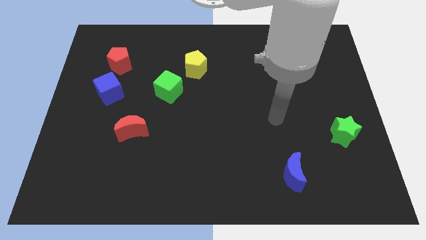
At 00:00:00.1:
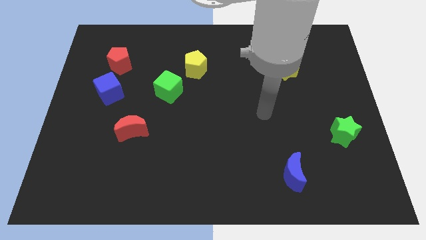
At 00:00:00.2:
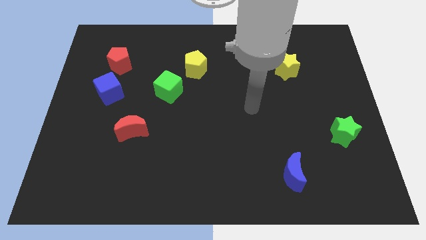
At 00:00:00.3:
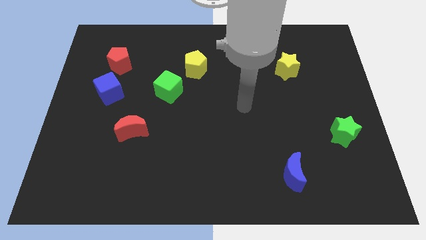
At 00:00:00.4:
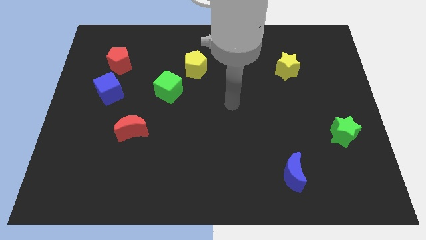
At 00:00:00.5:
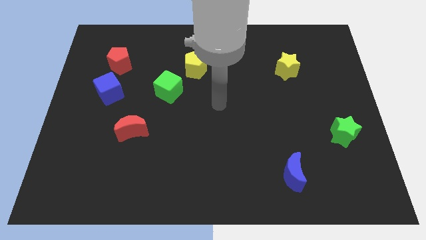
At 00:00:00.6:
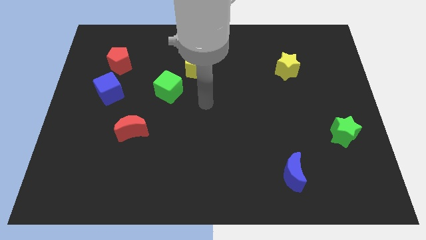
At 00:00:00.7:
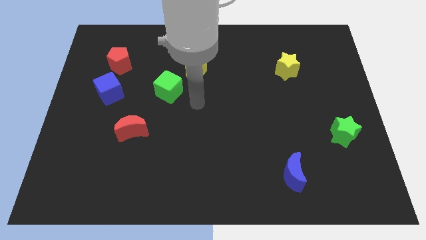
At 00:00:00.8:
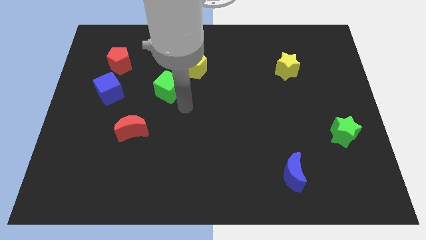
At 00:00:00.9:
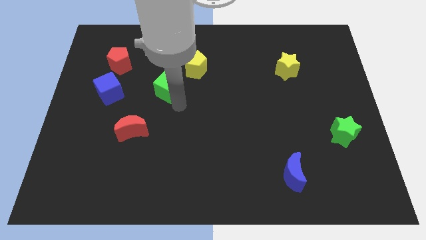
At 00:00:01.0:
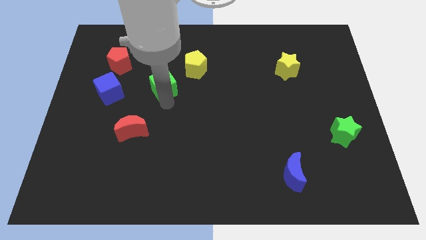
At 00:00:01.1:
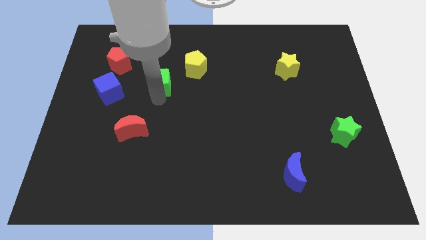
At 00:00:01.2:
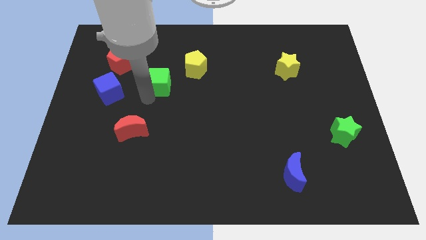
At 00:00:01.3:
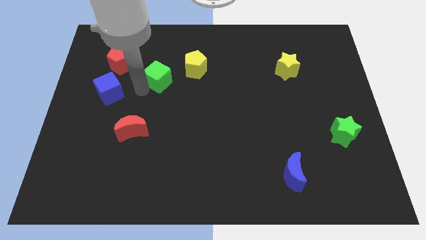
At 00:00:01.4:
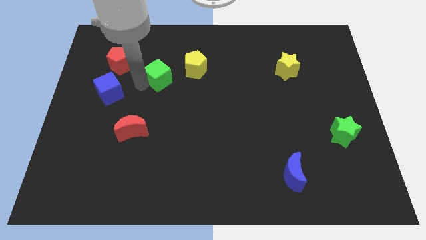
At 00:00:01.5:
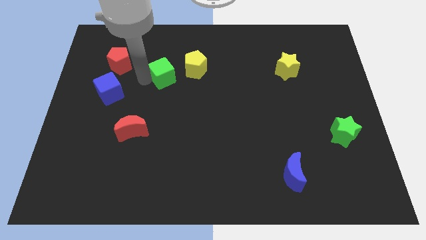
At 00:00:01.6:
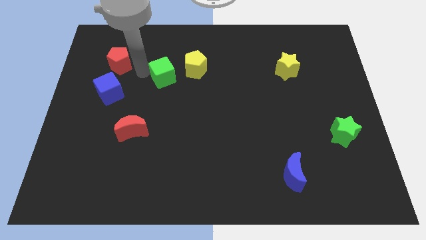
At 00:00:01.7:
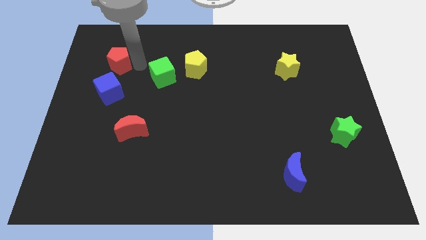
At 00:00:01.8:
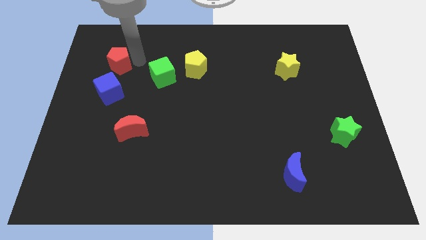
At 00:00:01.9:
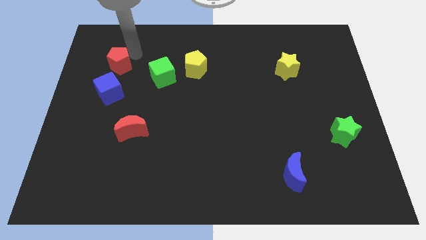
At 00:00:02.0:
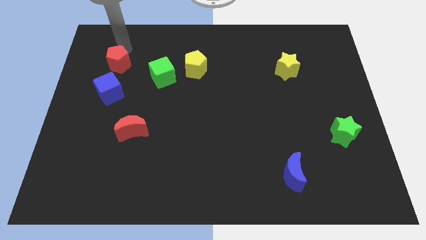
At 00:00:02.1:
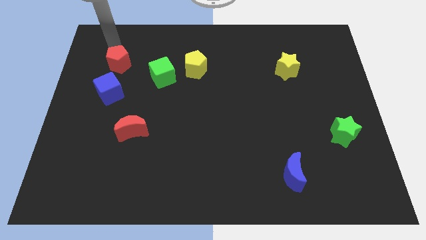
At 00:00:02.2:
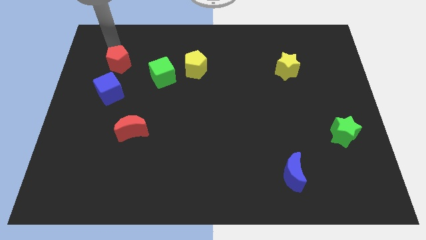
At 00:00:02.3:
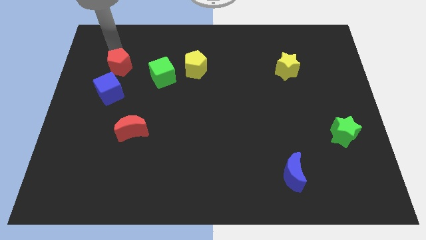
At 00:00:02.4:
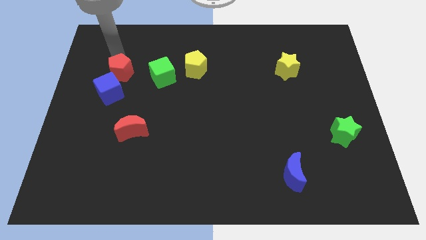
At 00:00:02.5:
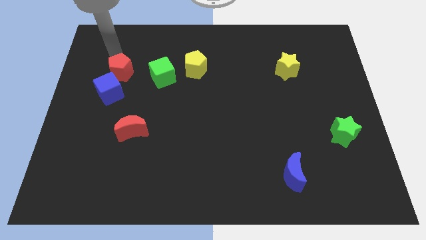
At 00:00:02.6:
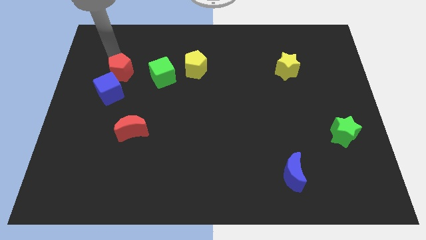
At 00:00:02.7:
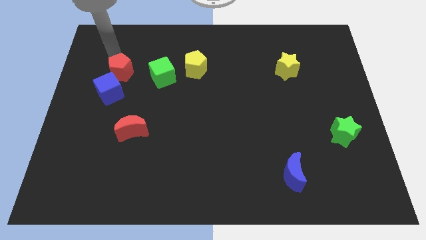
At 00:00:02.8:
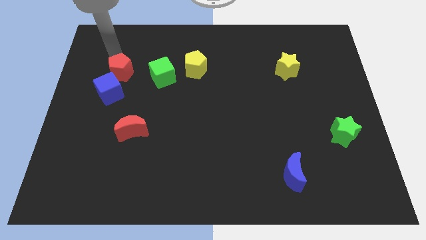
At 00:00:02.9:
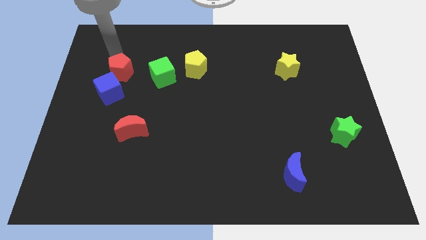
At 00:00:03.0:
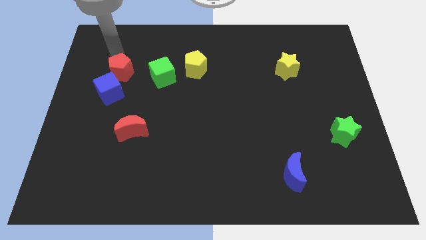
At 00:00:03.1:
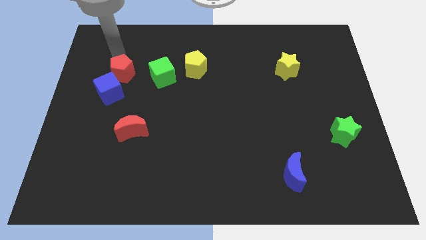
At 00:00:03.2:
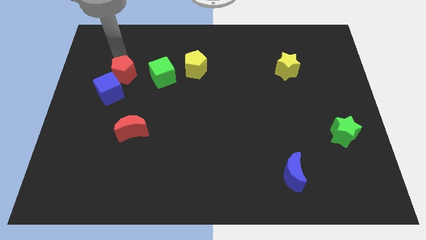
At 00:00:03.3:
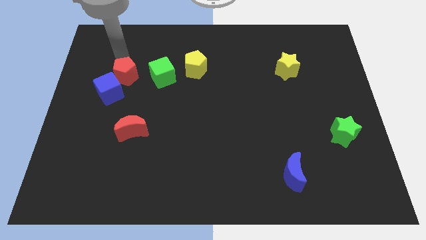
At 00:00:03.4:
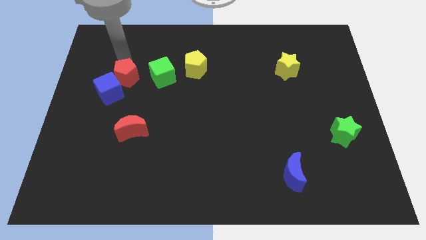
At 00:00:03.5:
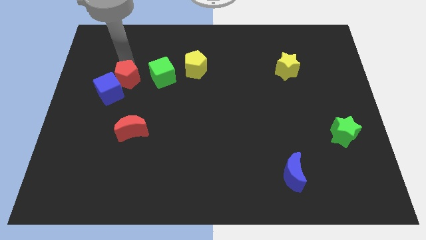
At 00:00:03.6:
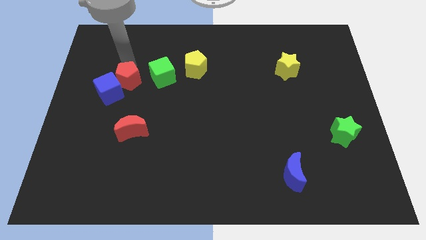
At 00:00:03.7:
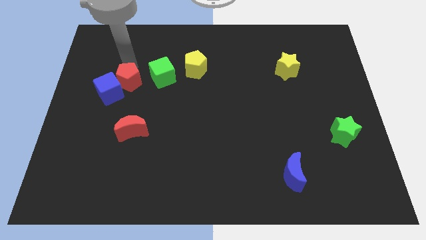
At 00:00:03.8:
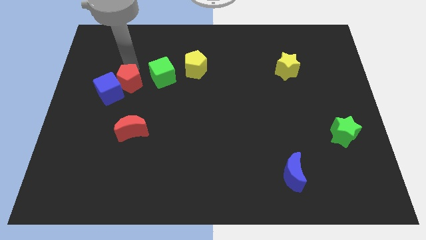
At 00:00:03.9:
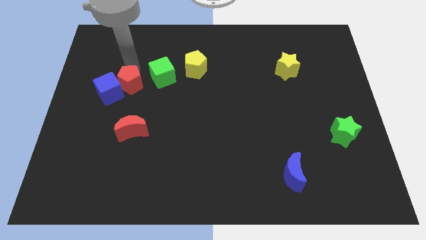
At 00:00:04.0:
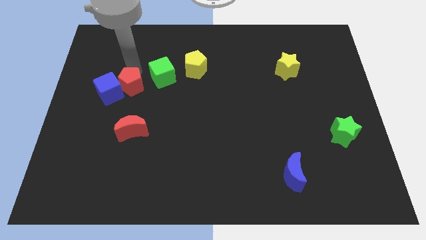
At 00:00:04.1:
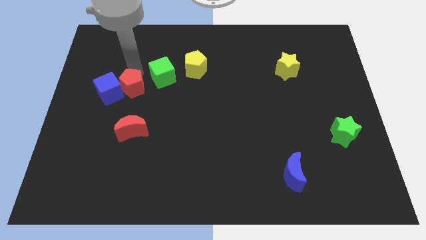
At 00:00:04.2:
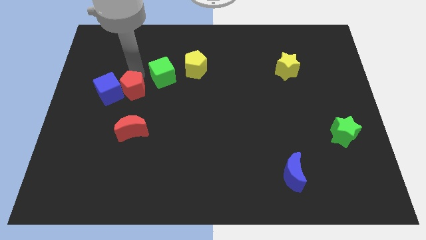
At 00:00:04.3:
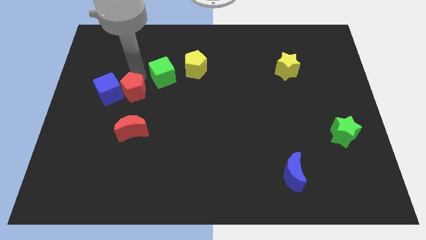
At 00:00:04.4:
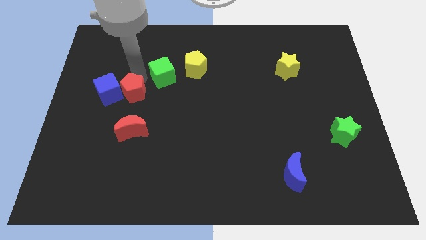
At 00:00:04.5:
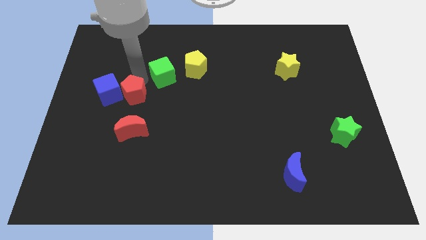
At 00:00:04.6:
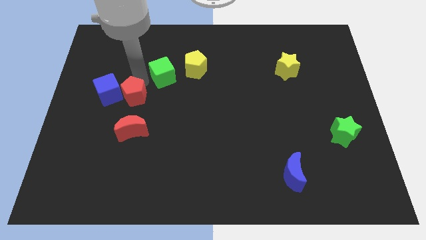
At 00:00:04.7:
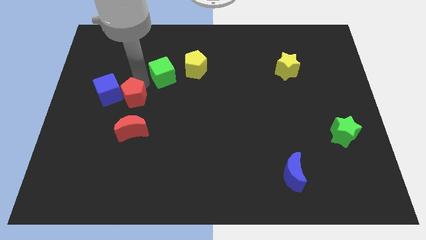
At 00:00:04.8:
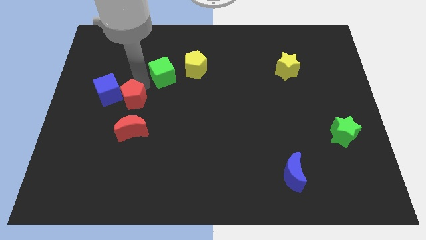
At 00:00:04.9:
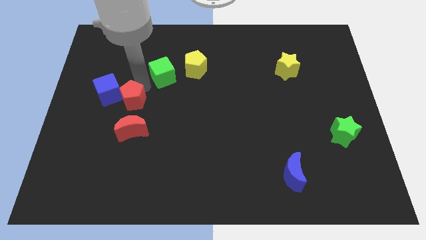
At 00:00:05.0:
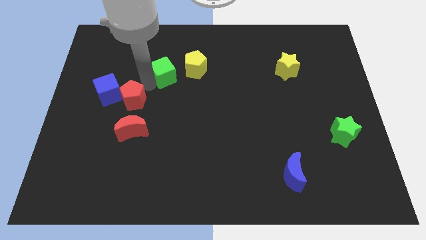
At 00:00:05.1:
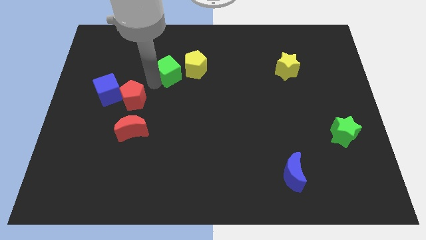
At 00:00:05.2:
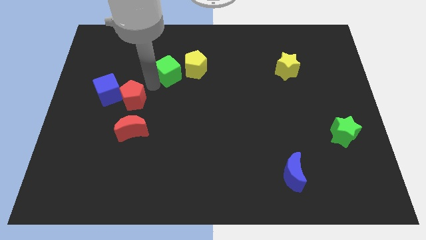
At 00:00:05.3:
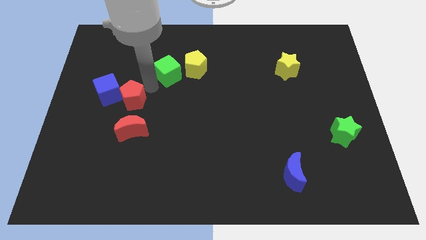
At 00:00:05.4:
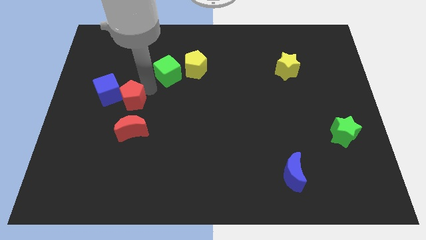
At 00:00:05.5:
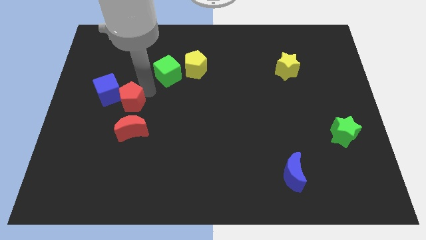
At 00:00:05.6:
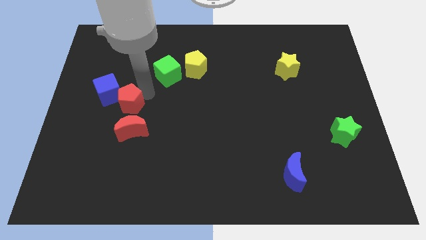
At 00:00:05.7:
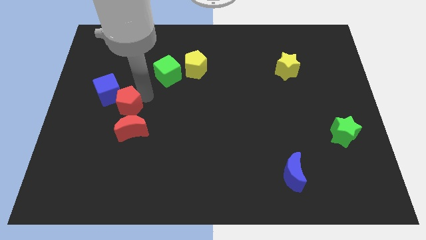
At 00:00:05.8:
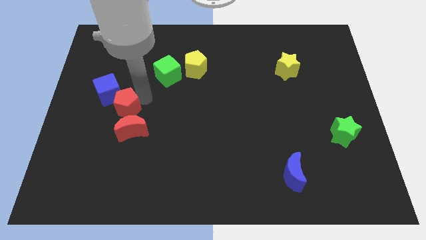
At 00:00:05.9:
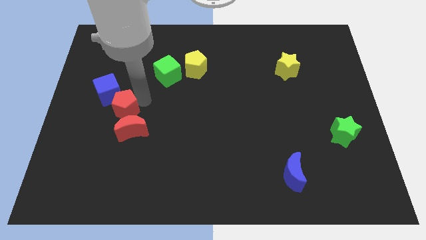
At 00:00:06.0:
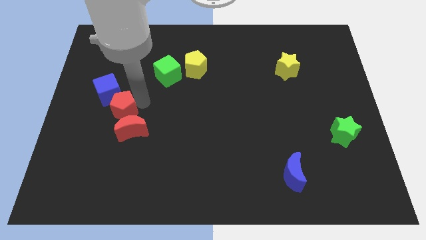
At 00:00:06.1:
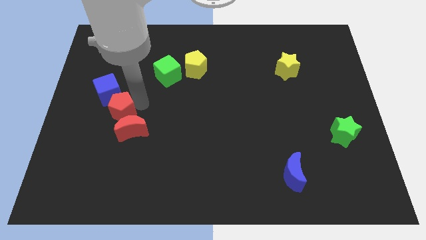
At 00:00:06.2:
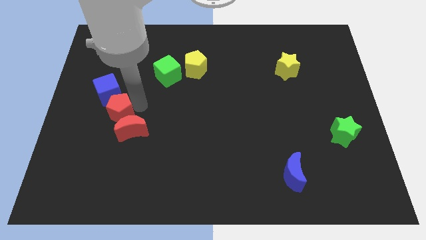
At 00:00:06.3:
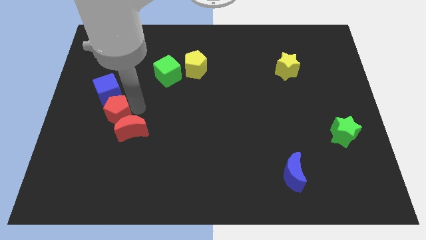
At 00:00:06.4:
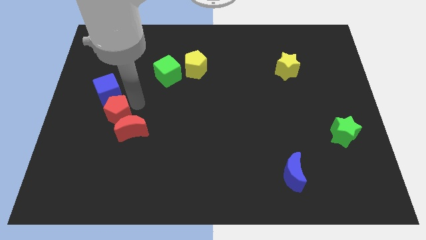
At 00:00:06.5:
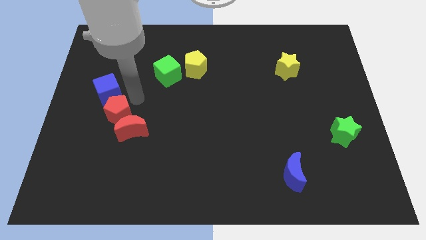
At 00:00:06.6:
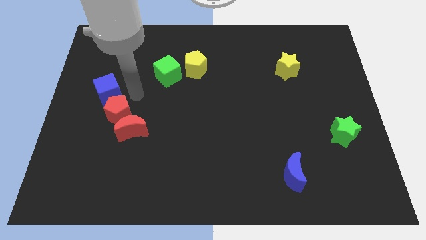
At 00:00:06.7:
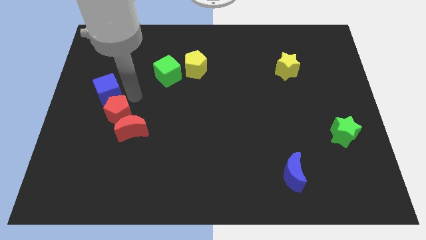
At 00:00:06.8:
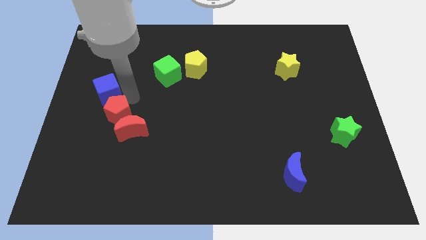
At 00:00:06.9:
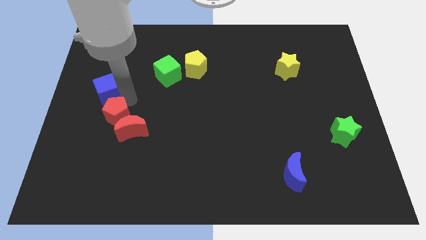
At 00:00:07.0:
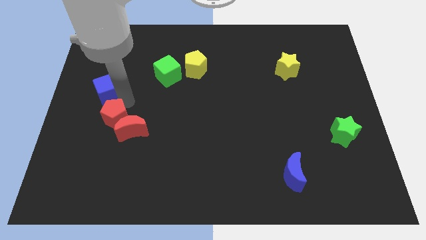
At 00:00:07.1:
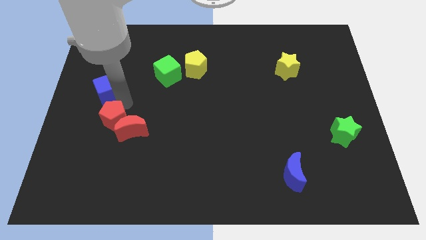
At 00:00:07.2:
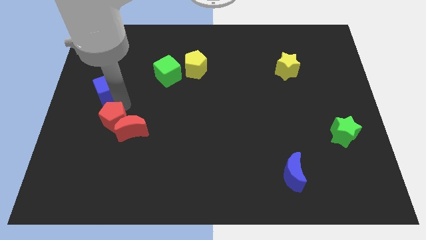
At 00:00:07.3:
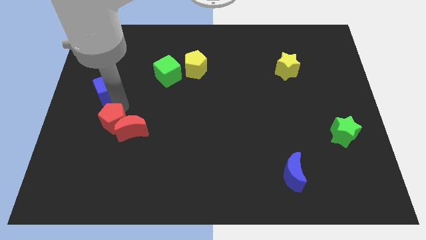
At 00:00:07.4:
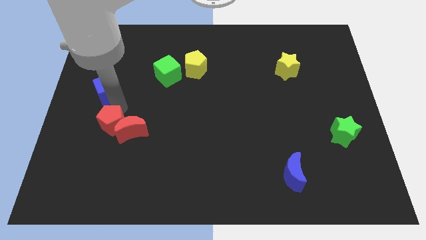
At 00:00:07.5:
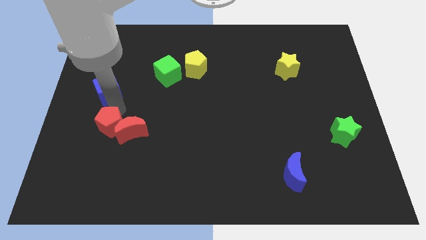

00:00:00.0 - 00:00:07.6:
slide the red pentagon downwards

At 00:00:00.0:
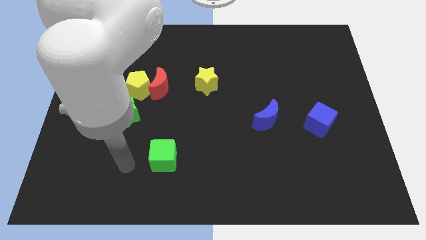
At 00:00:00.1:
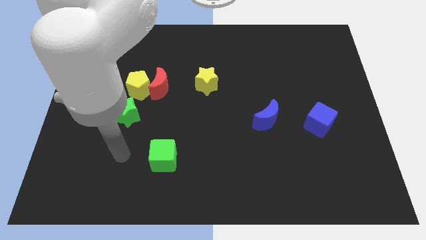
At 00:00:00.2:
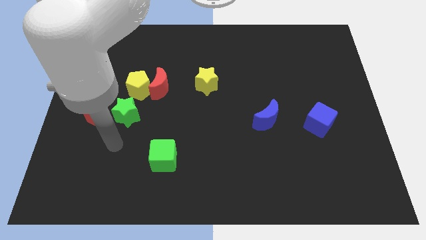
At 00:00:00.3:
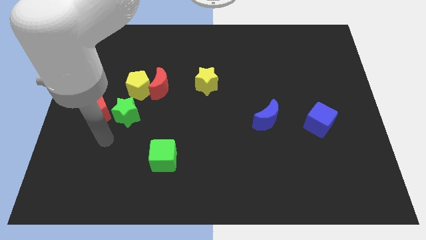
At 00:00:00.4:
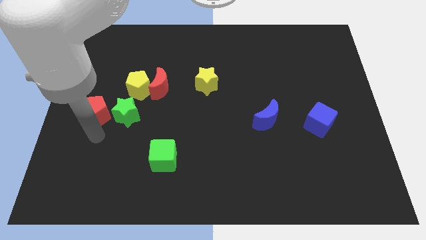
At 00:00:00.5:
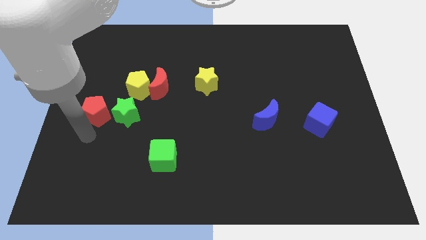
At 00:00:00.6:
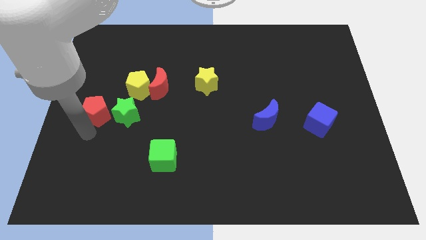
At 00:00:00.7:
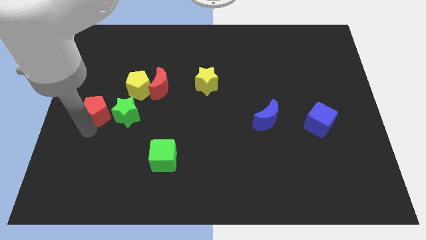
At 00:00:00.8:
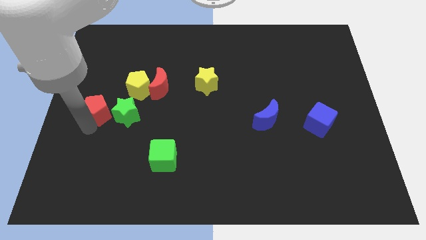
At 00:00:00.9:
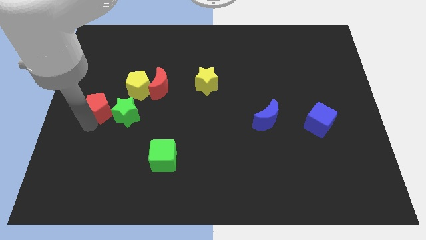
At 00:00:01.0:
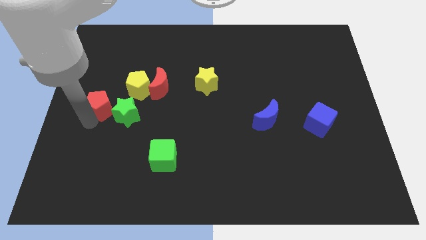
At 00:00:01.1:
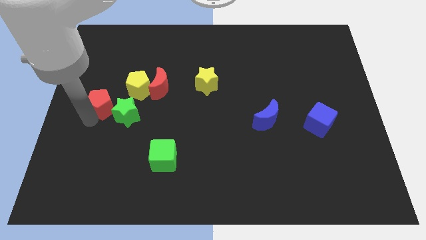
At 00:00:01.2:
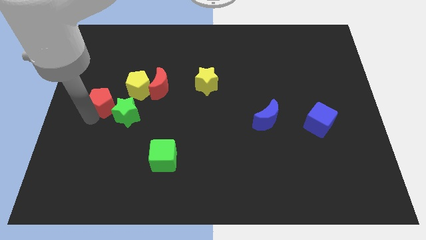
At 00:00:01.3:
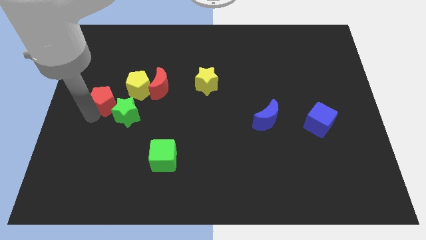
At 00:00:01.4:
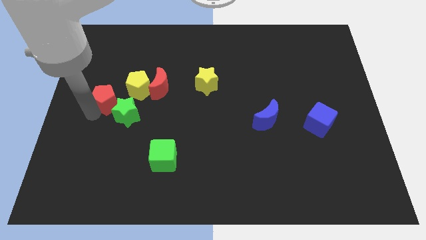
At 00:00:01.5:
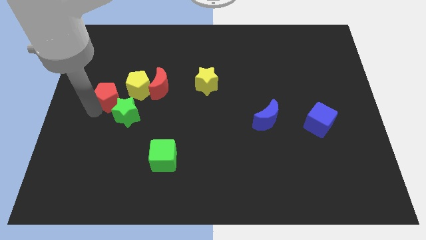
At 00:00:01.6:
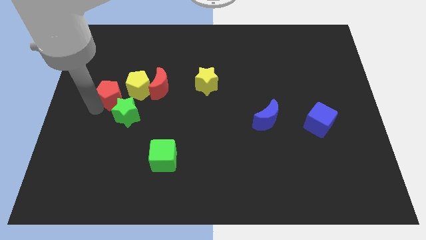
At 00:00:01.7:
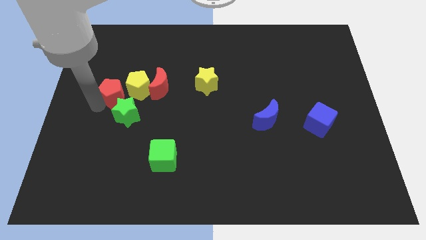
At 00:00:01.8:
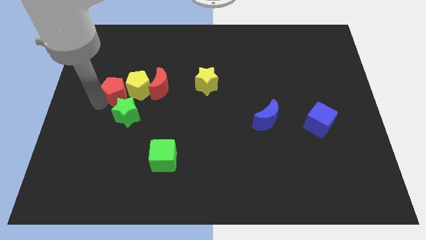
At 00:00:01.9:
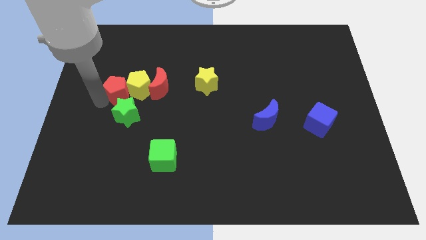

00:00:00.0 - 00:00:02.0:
move the red pentagon diagonally up and to the right a little
